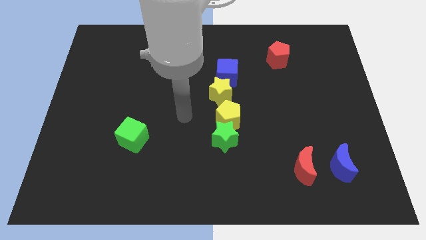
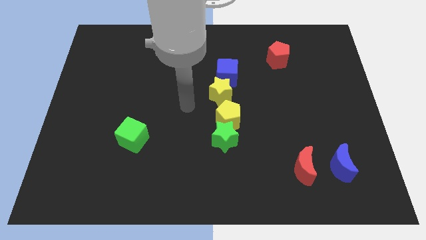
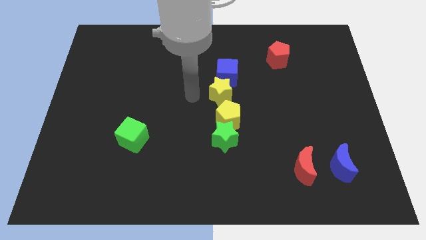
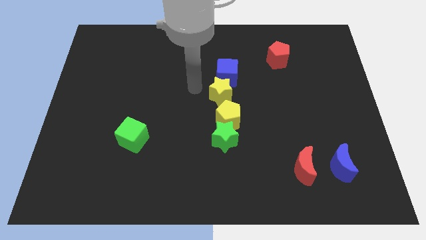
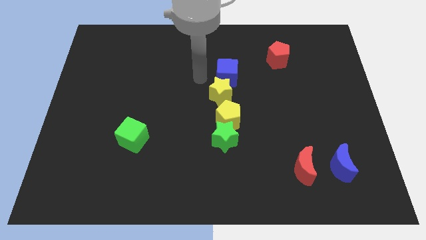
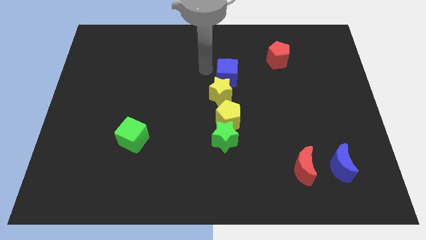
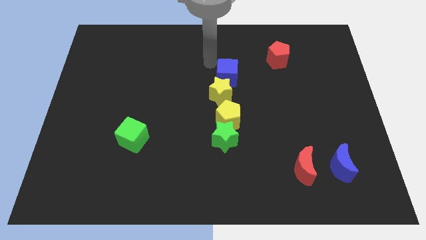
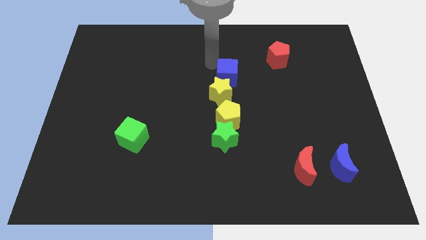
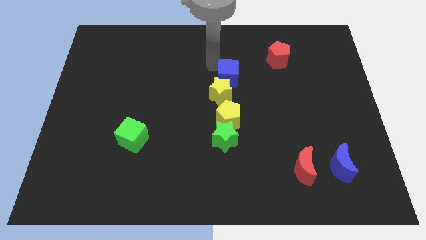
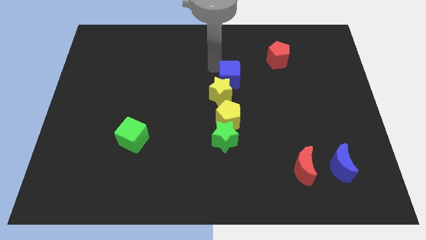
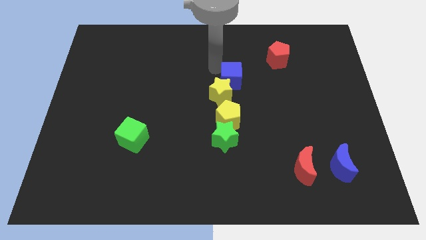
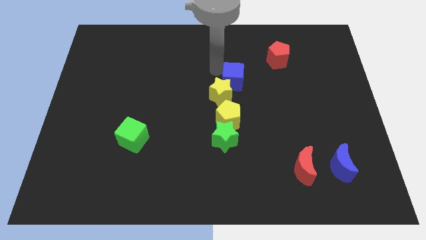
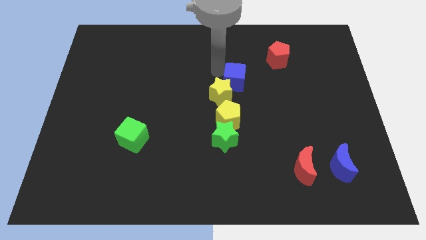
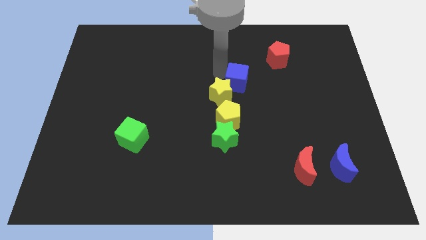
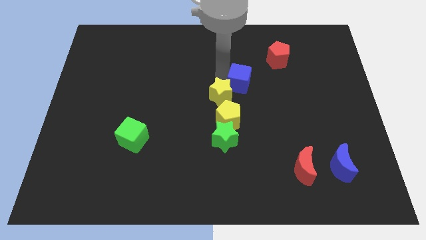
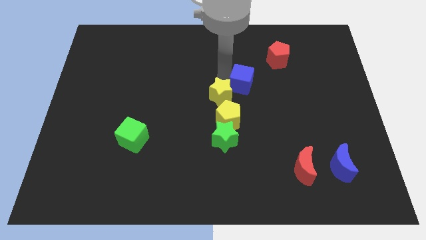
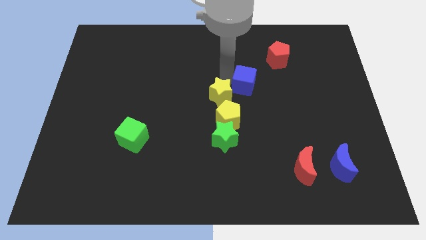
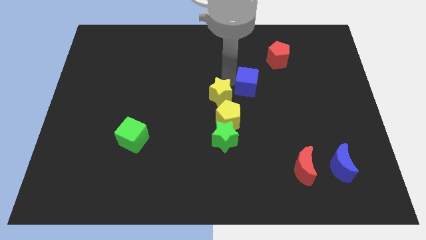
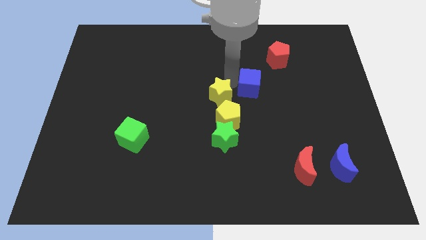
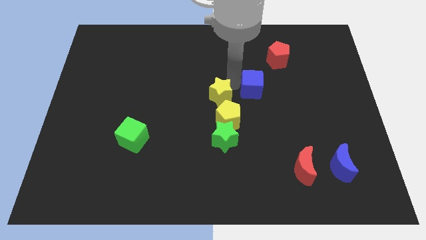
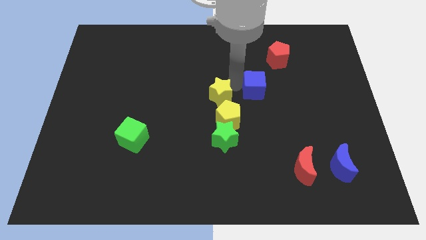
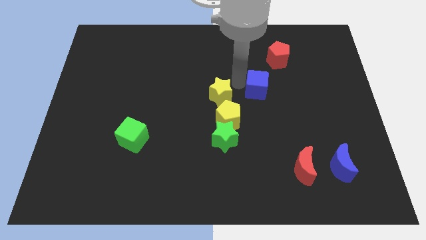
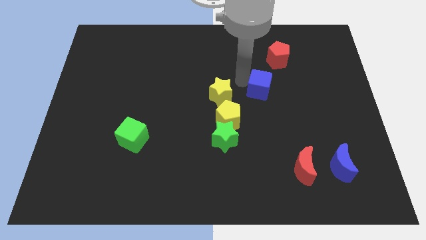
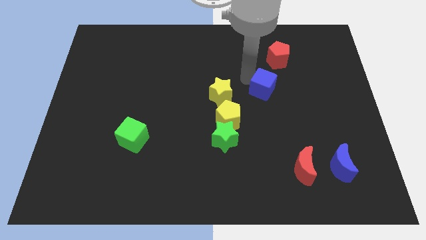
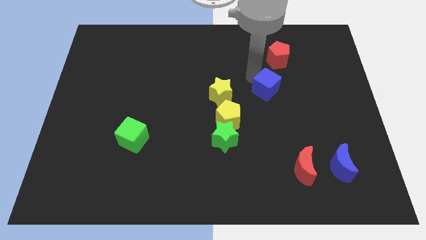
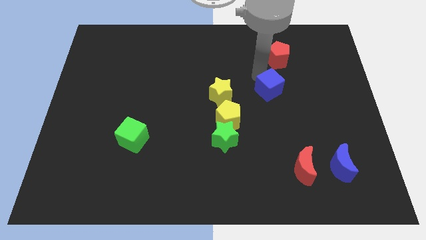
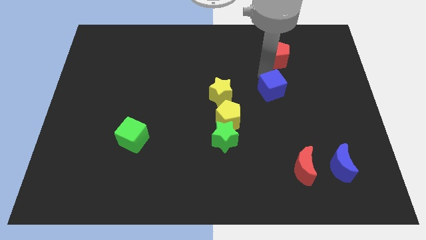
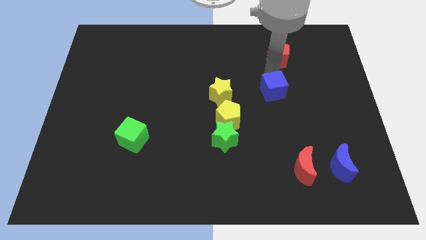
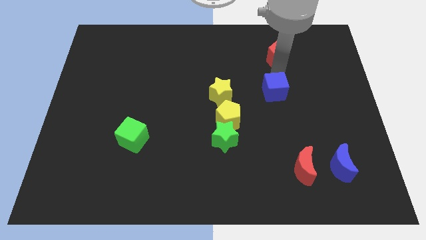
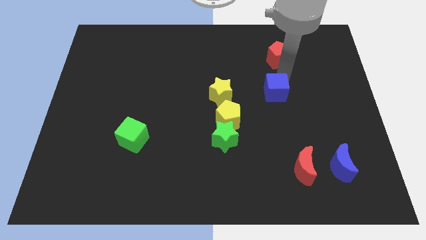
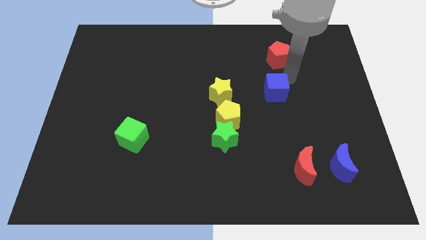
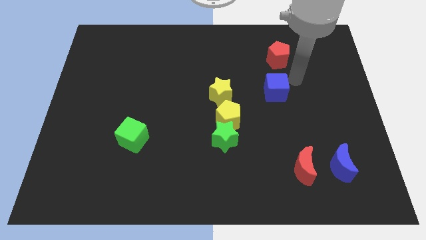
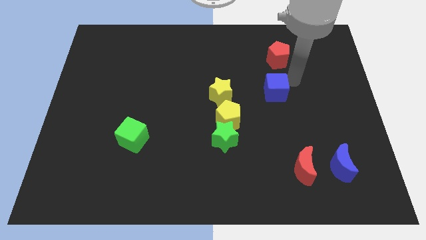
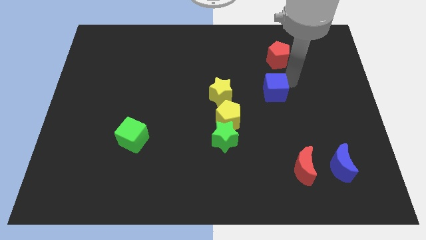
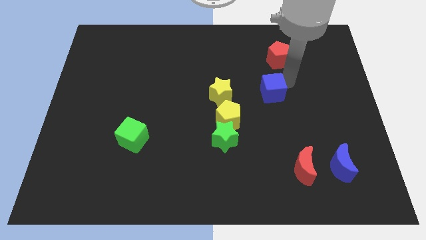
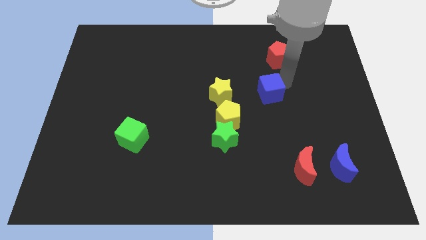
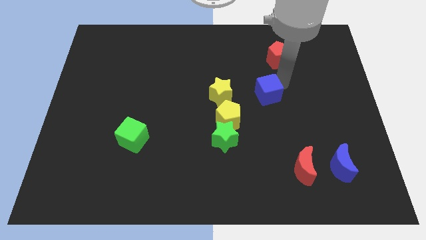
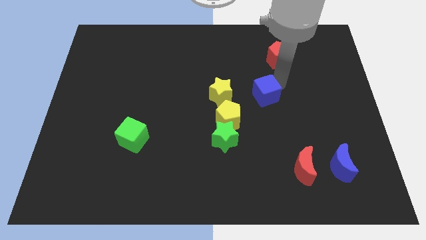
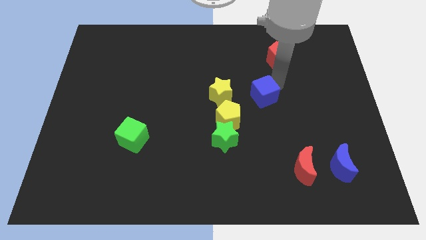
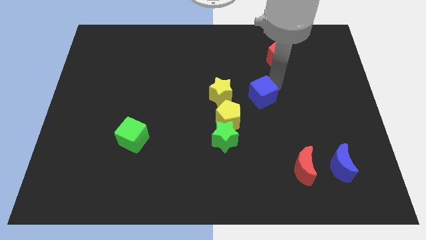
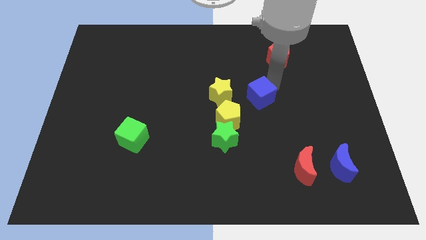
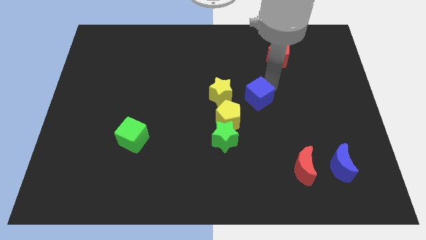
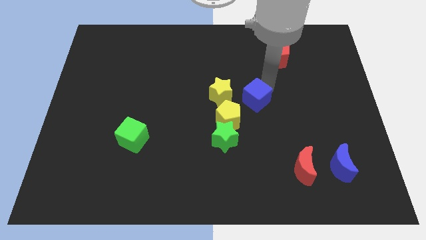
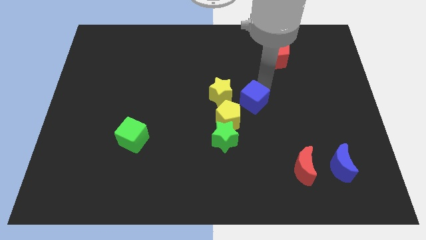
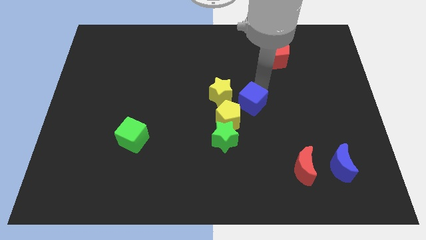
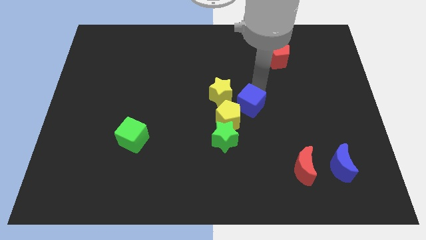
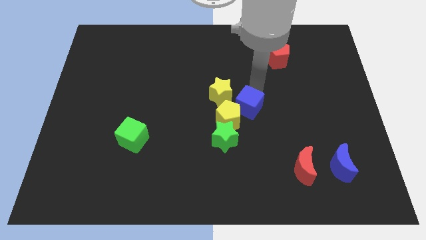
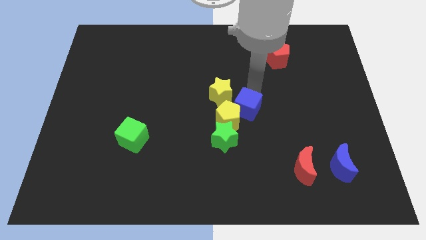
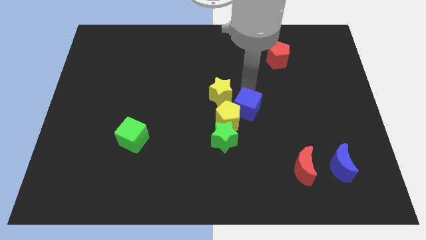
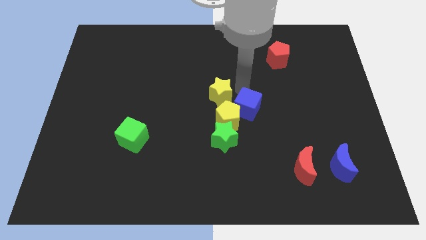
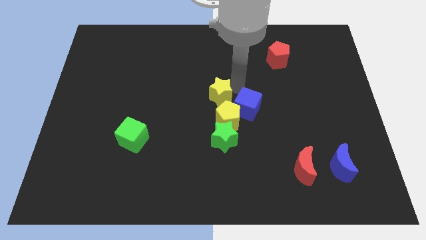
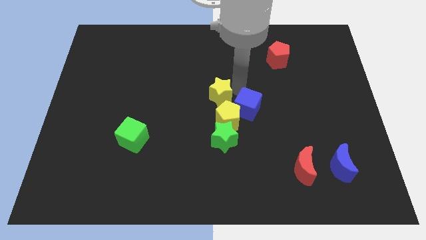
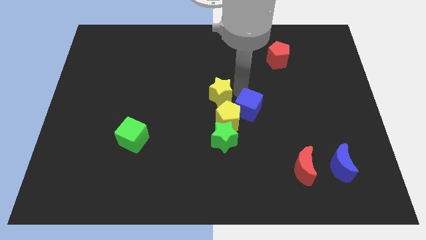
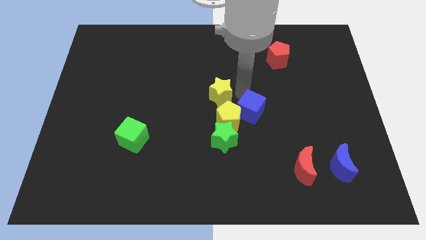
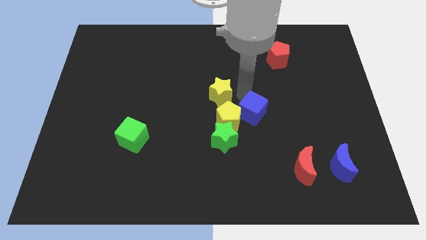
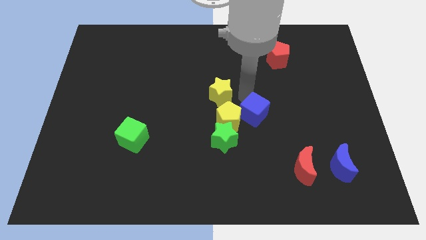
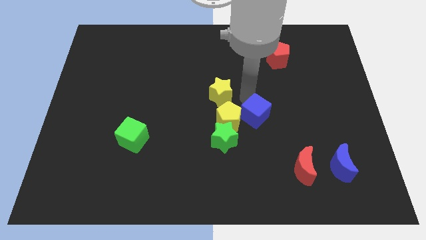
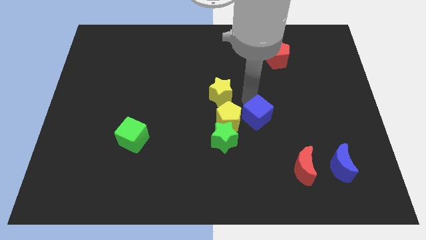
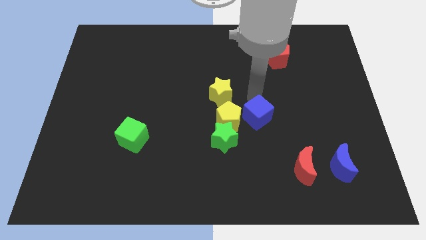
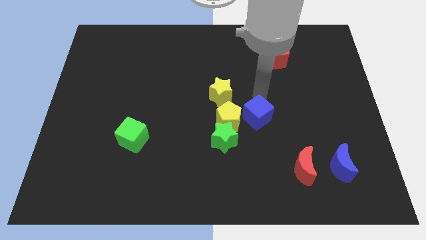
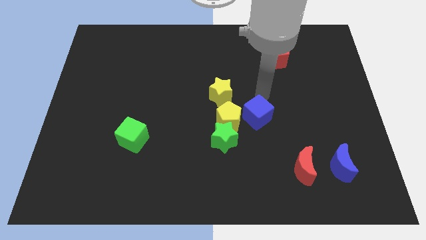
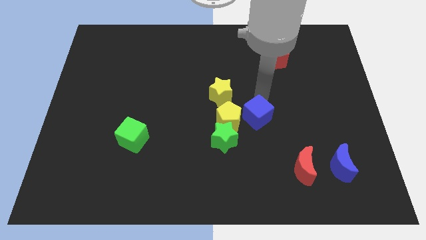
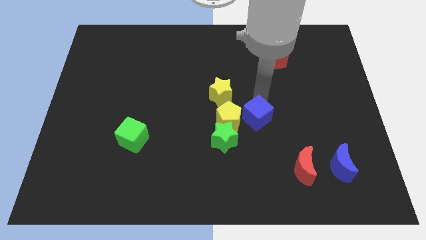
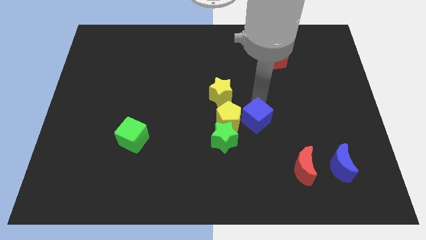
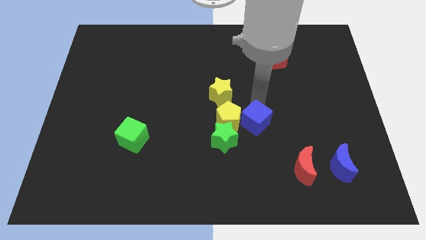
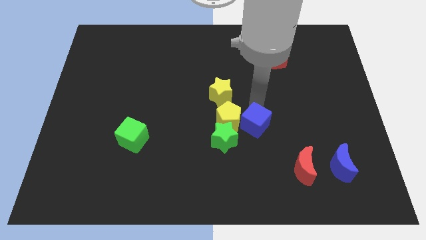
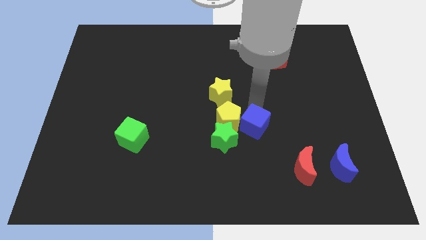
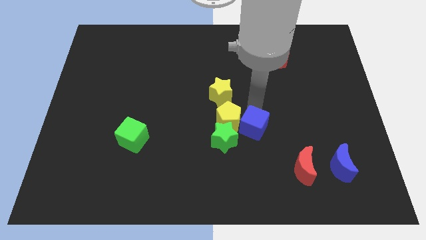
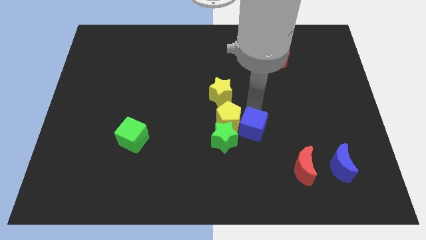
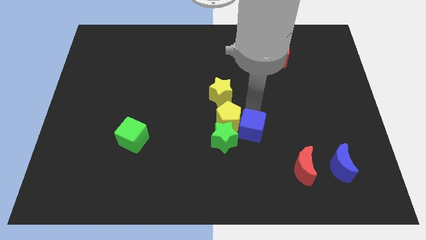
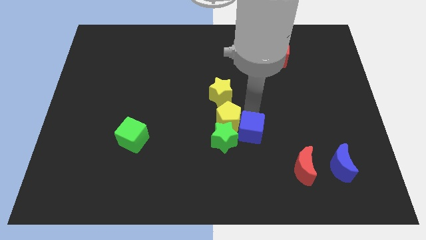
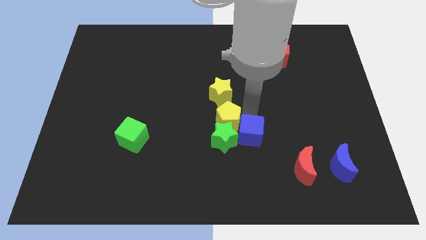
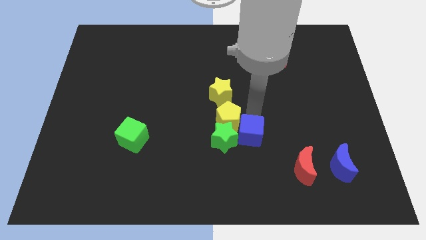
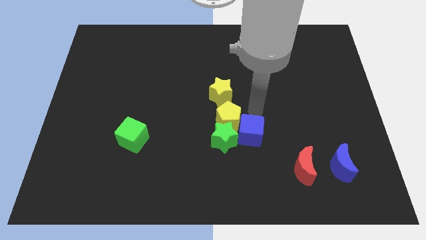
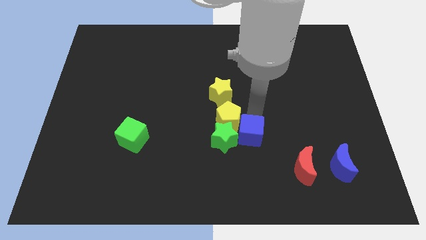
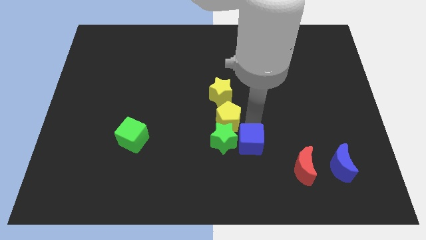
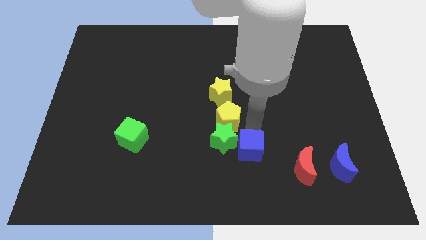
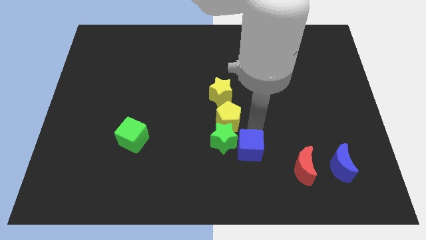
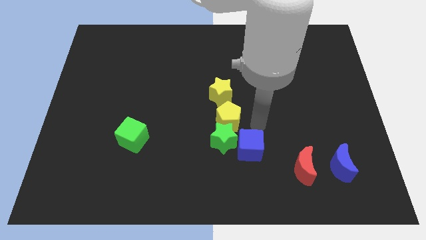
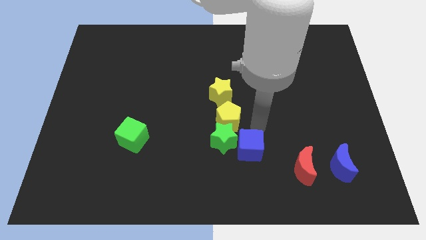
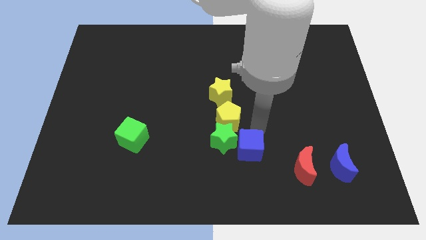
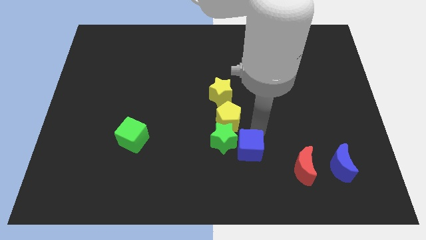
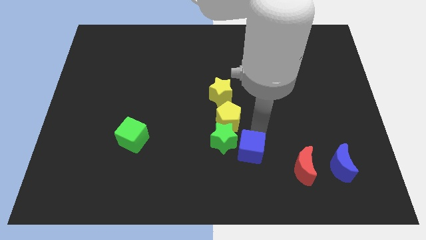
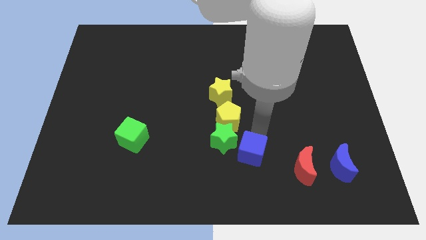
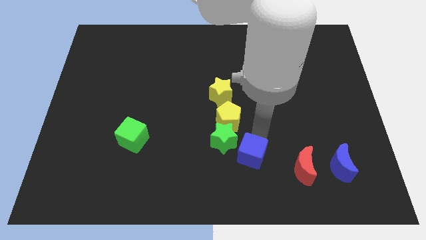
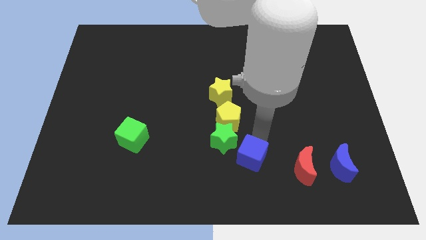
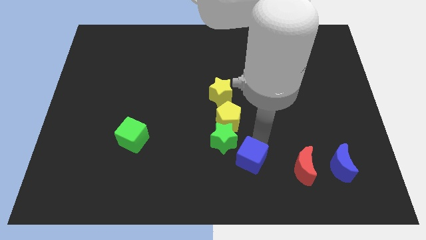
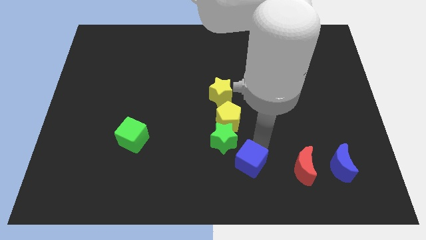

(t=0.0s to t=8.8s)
slide the blue cube to the bottom
